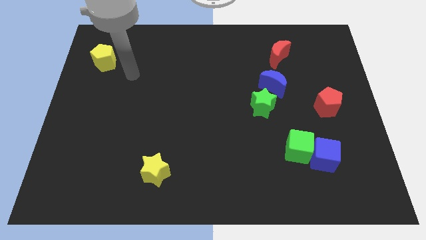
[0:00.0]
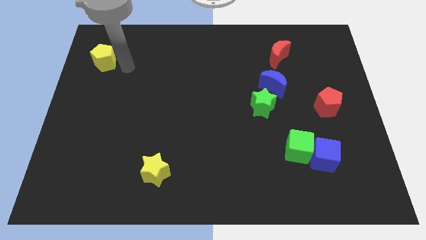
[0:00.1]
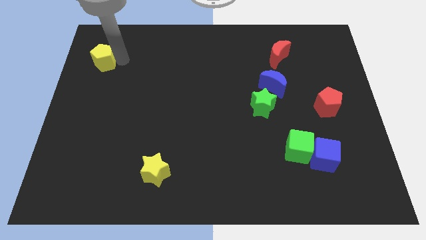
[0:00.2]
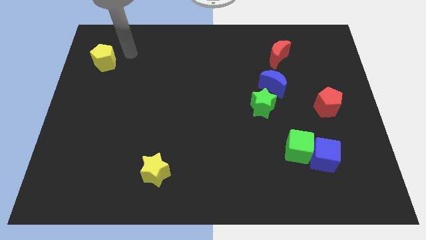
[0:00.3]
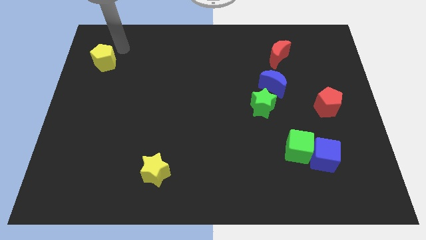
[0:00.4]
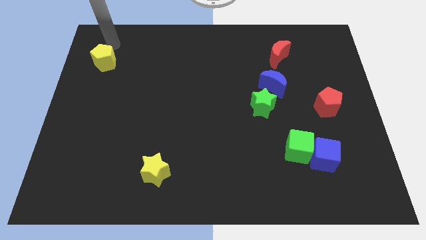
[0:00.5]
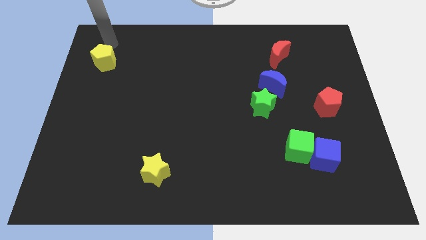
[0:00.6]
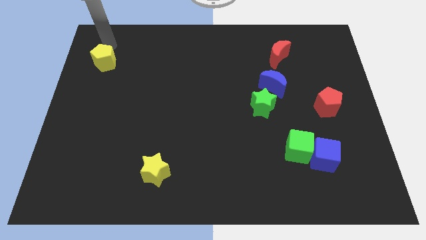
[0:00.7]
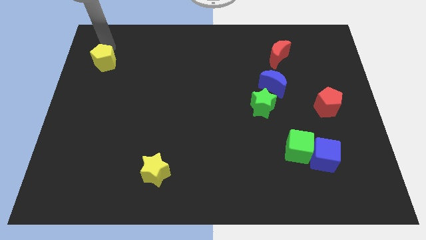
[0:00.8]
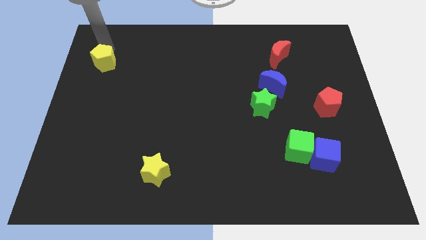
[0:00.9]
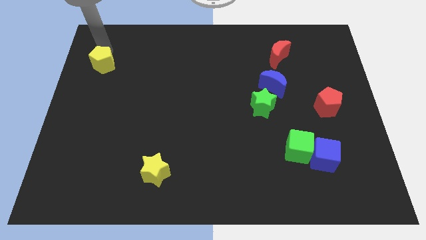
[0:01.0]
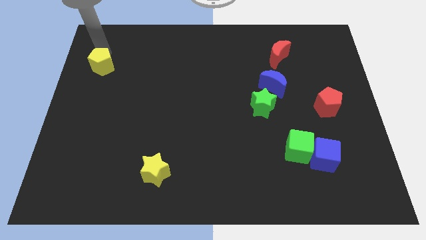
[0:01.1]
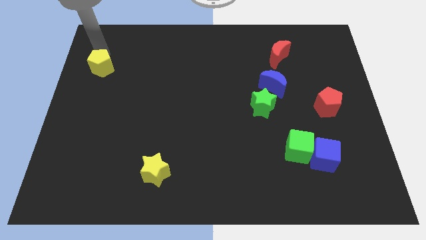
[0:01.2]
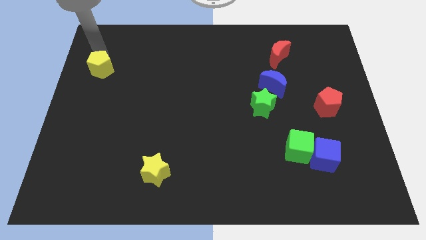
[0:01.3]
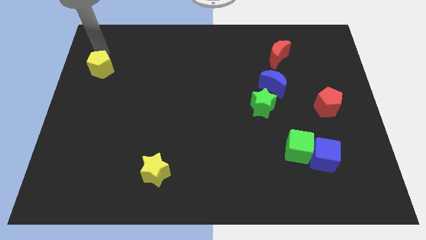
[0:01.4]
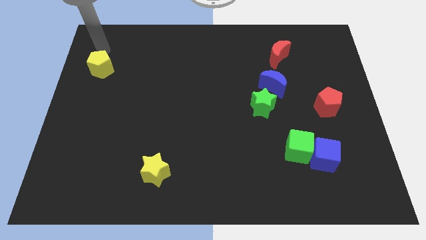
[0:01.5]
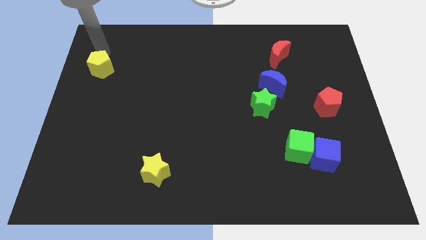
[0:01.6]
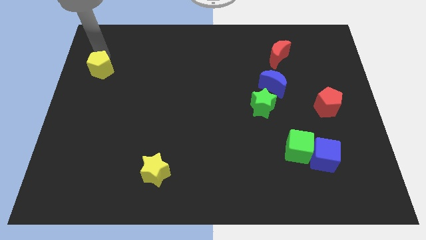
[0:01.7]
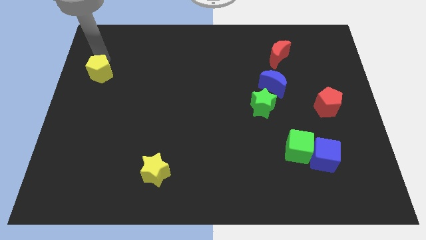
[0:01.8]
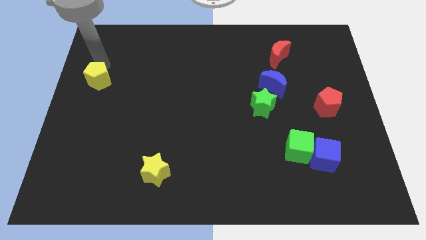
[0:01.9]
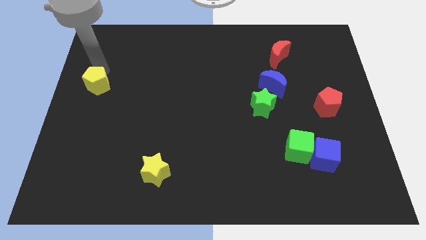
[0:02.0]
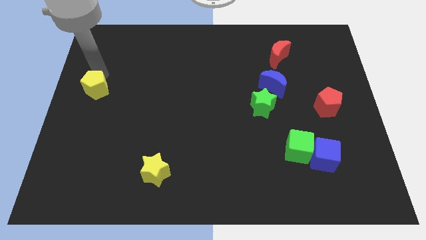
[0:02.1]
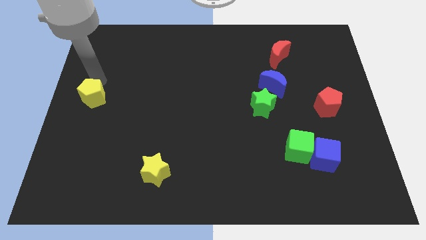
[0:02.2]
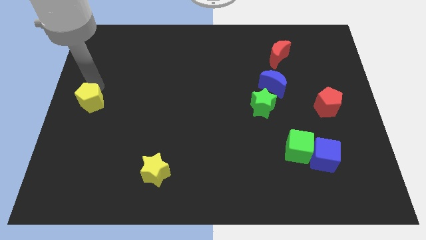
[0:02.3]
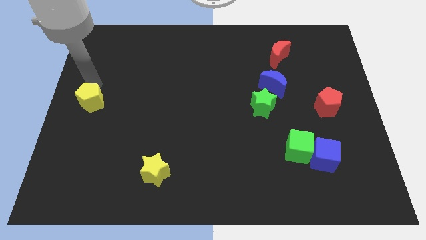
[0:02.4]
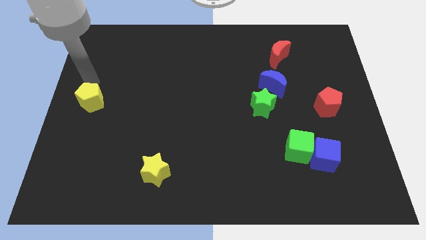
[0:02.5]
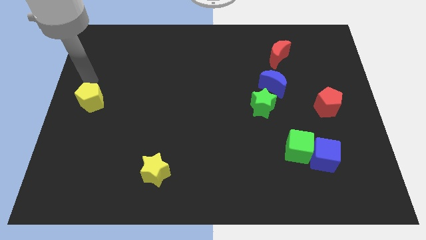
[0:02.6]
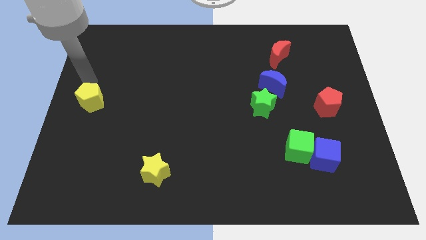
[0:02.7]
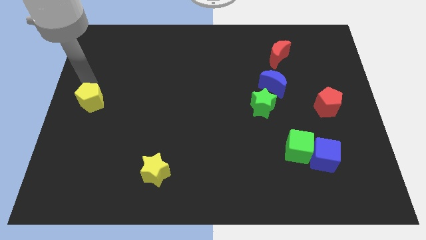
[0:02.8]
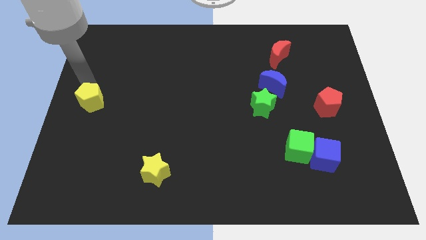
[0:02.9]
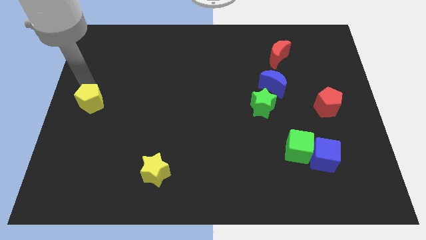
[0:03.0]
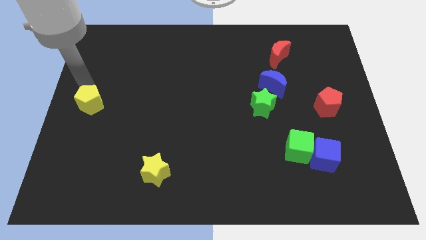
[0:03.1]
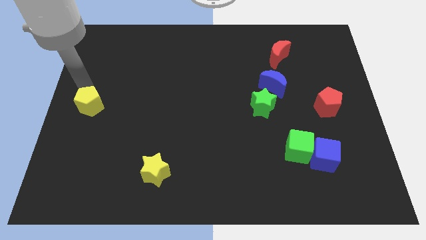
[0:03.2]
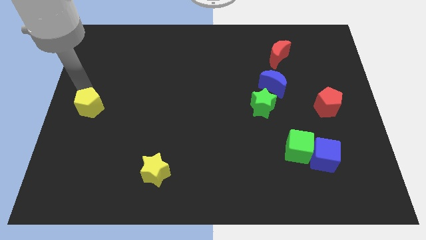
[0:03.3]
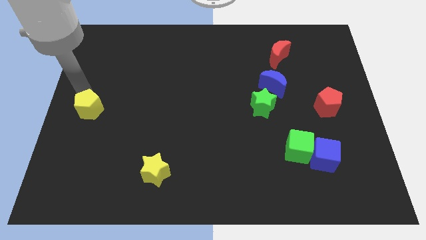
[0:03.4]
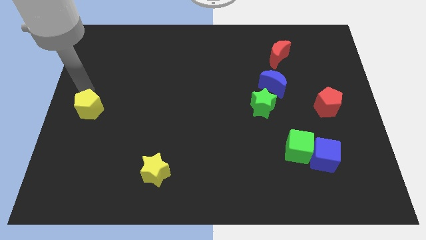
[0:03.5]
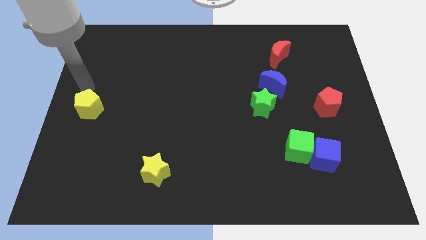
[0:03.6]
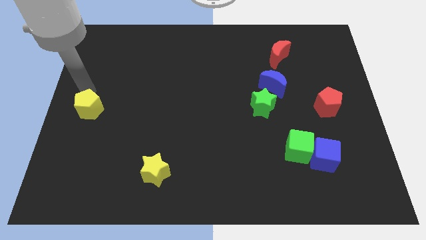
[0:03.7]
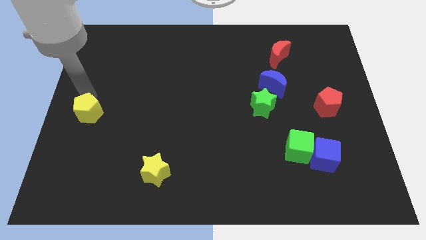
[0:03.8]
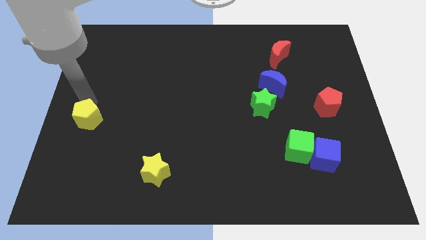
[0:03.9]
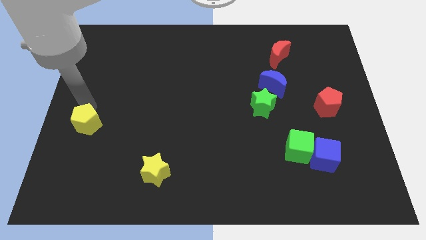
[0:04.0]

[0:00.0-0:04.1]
slide the yellow pentagon down

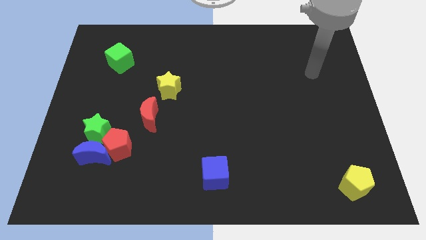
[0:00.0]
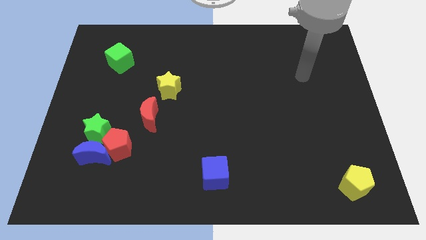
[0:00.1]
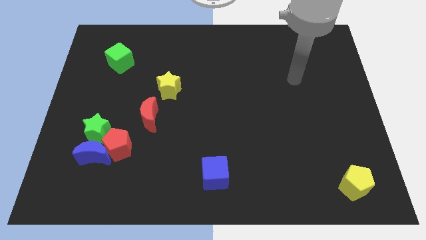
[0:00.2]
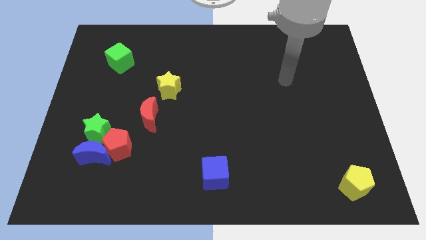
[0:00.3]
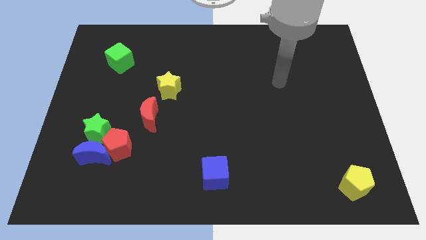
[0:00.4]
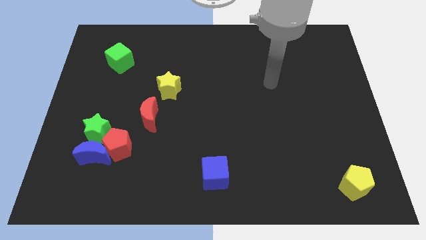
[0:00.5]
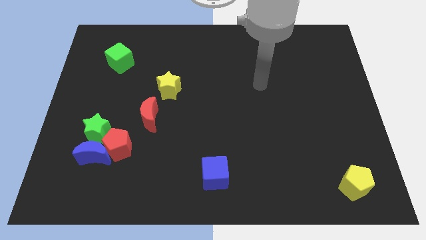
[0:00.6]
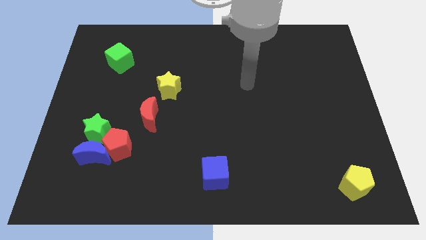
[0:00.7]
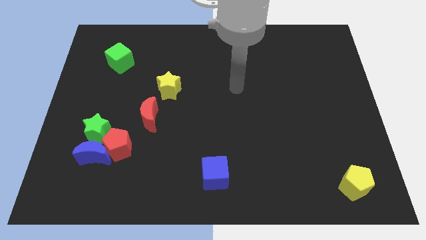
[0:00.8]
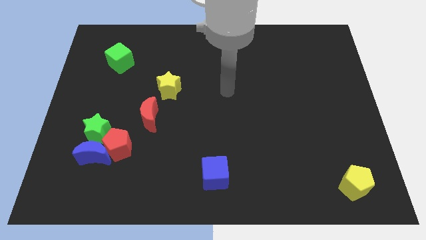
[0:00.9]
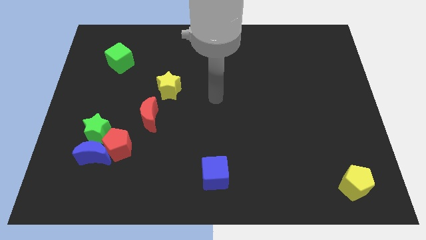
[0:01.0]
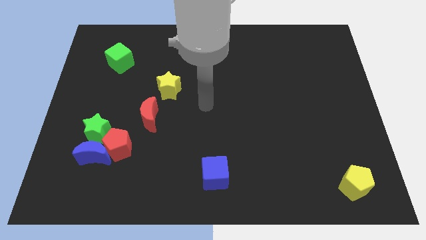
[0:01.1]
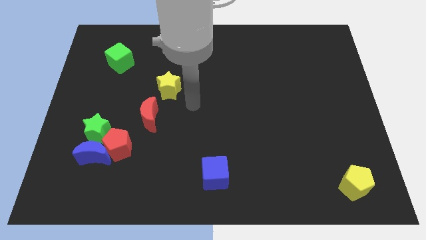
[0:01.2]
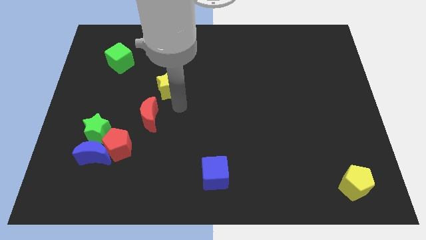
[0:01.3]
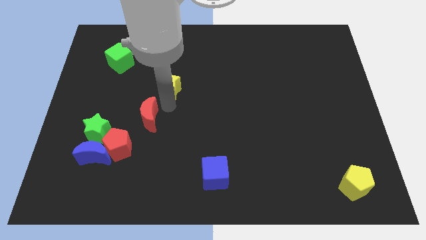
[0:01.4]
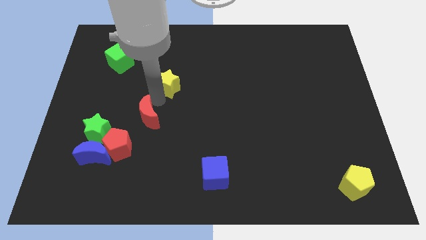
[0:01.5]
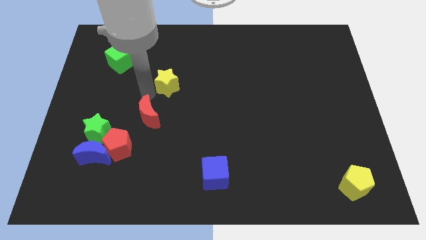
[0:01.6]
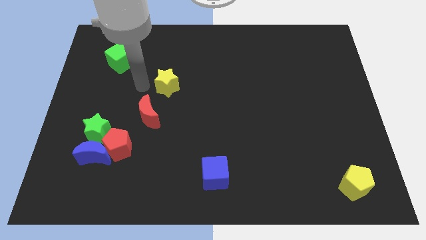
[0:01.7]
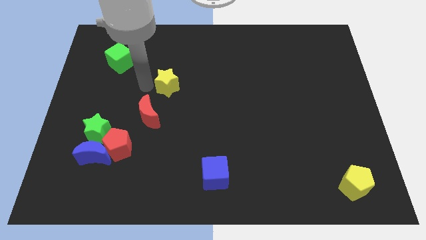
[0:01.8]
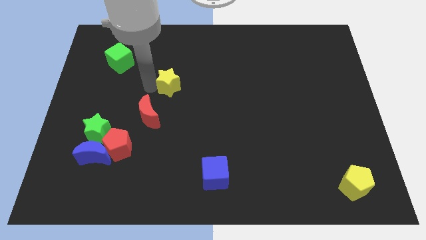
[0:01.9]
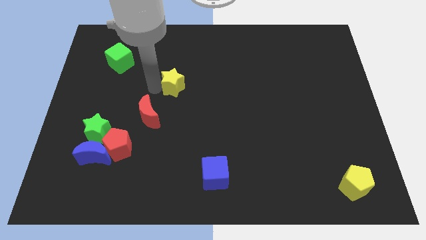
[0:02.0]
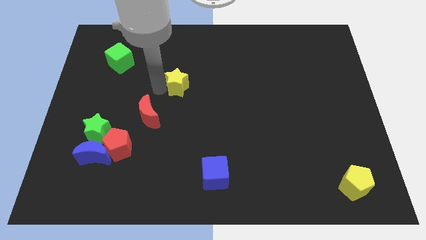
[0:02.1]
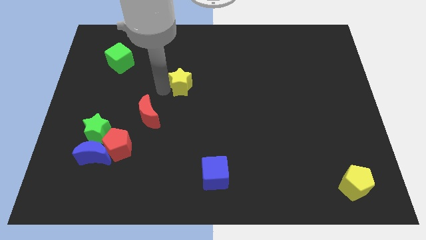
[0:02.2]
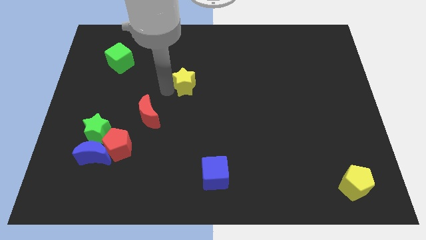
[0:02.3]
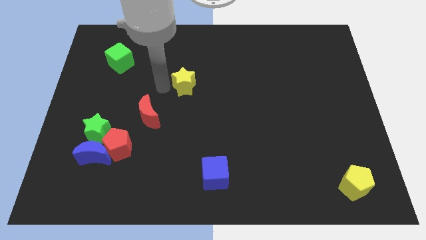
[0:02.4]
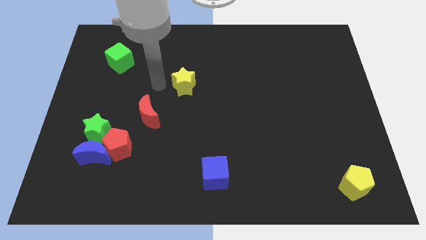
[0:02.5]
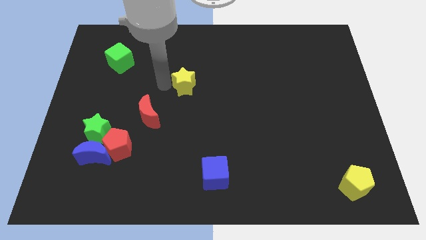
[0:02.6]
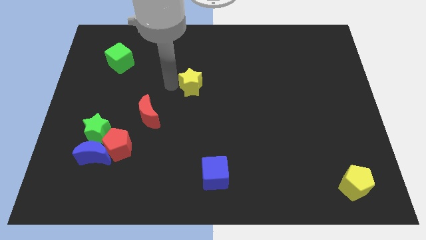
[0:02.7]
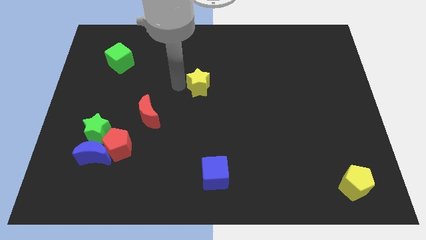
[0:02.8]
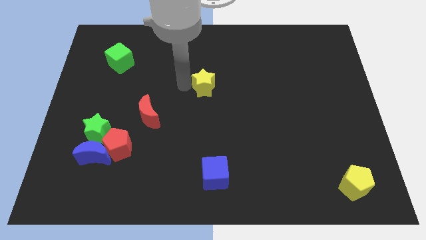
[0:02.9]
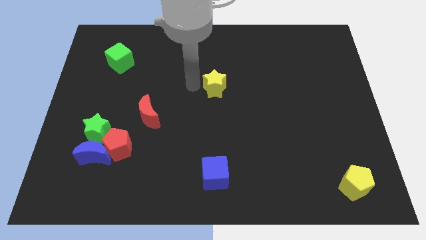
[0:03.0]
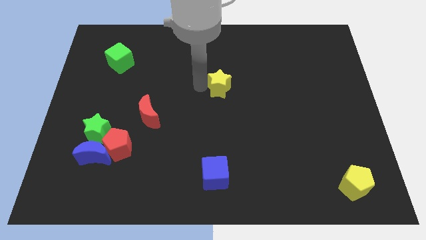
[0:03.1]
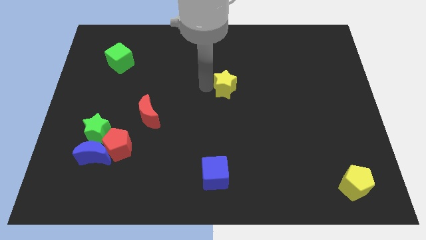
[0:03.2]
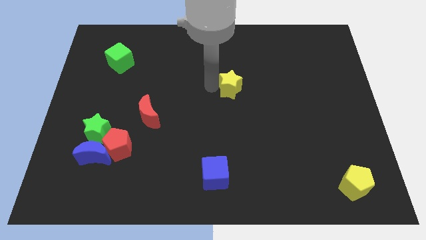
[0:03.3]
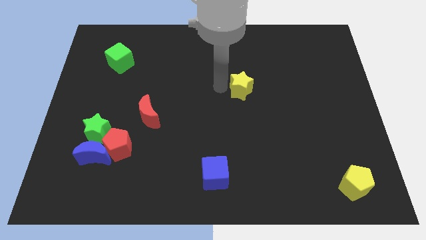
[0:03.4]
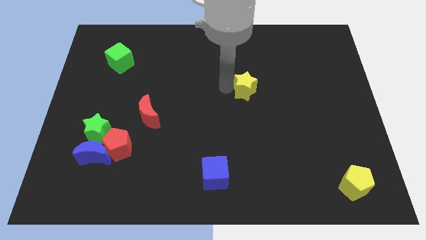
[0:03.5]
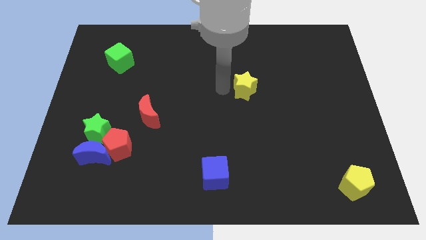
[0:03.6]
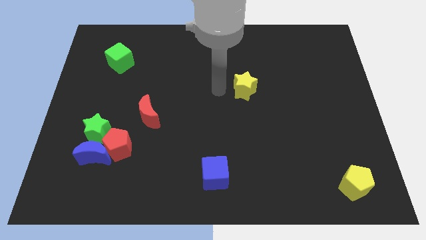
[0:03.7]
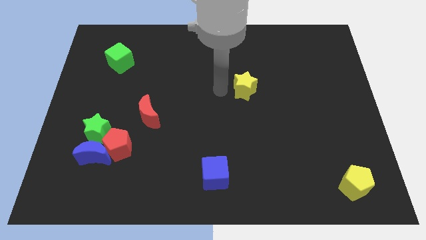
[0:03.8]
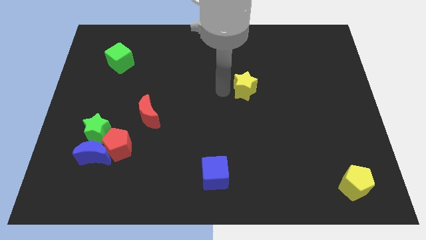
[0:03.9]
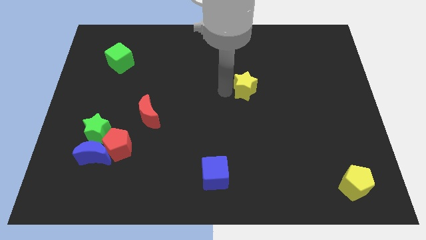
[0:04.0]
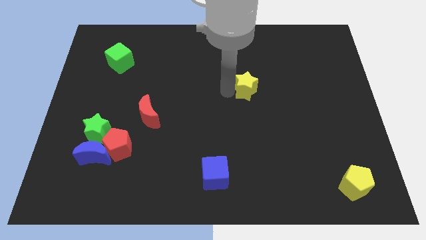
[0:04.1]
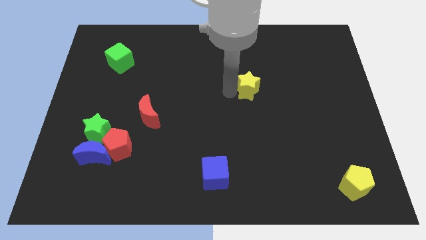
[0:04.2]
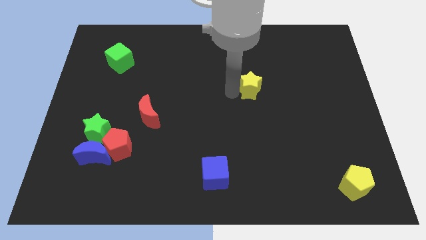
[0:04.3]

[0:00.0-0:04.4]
move the yellow star right
